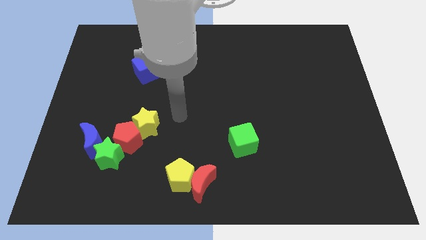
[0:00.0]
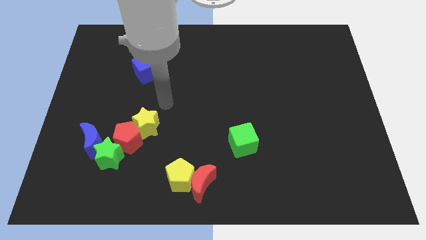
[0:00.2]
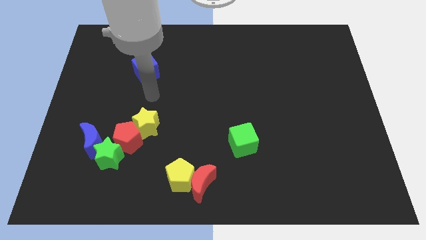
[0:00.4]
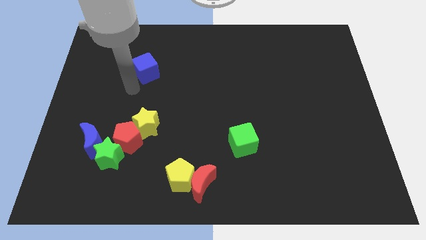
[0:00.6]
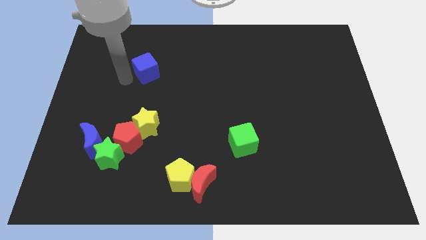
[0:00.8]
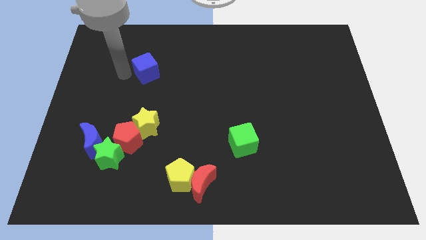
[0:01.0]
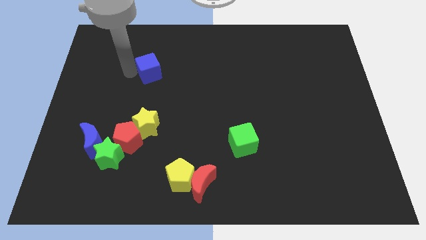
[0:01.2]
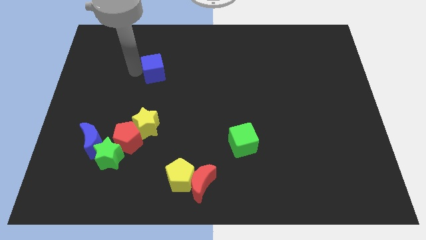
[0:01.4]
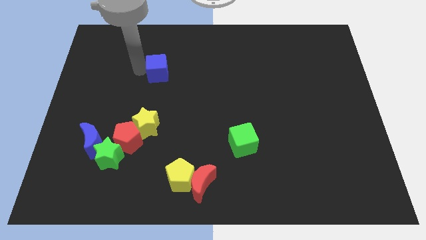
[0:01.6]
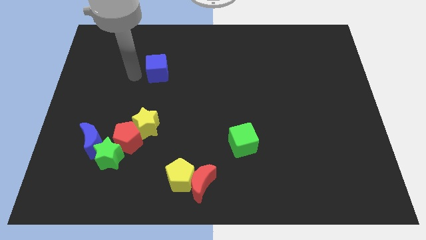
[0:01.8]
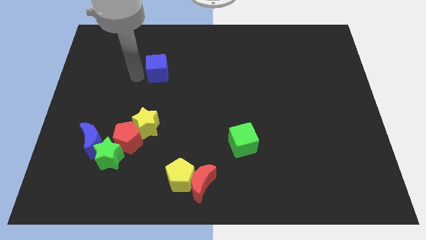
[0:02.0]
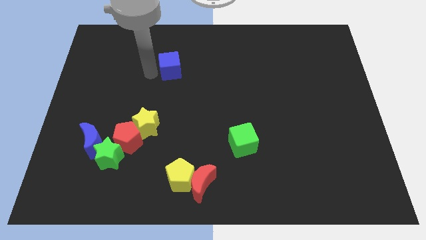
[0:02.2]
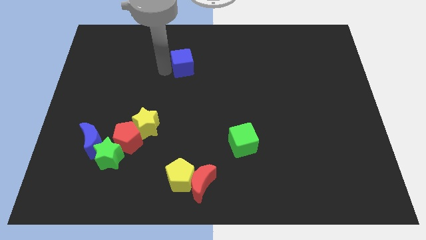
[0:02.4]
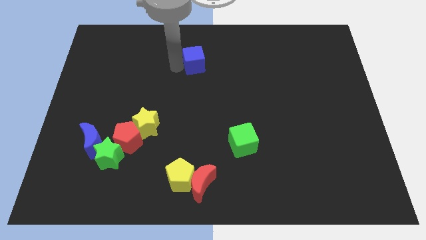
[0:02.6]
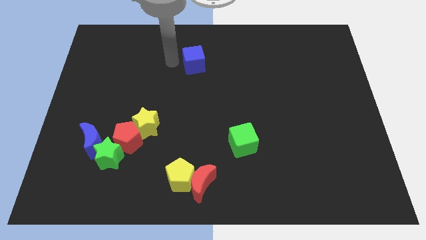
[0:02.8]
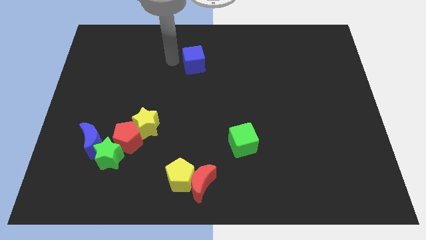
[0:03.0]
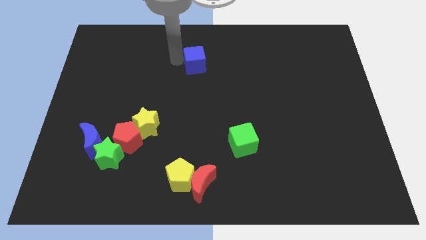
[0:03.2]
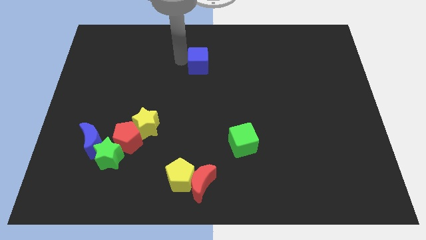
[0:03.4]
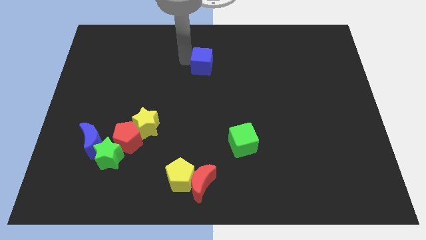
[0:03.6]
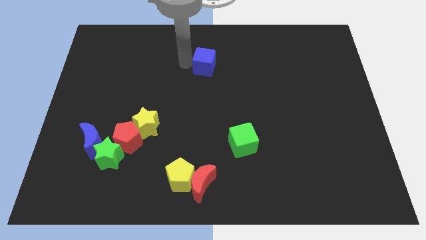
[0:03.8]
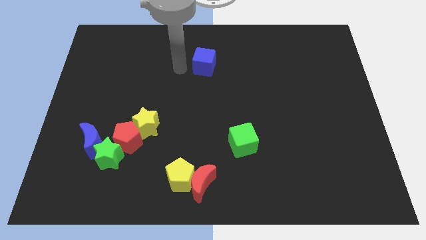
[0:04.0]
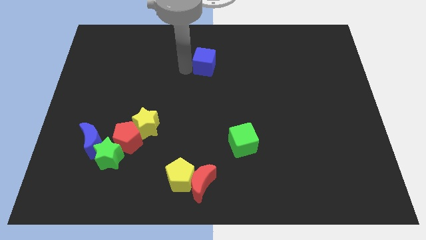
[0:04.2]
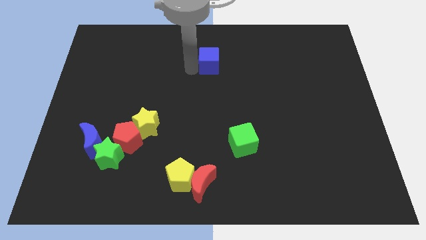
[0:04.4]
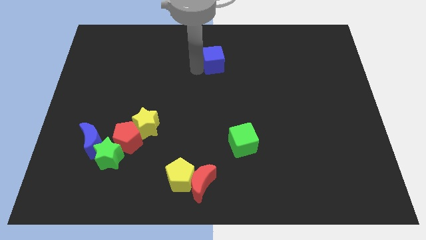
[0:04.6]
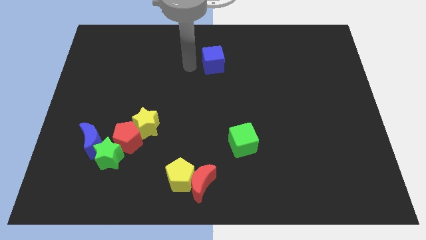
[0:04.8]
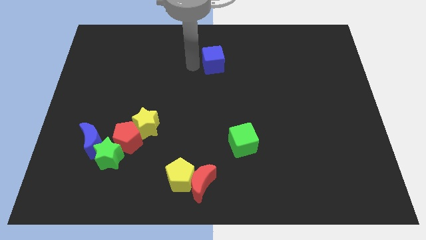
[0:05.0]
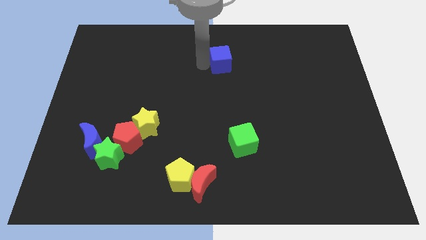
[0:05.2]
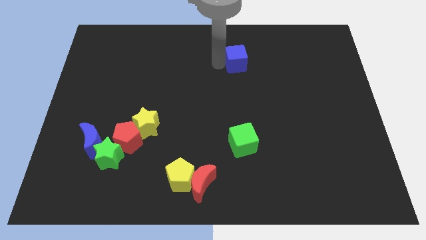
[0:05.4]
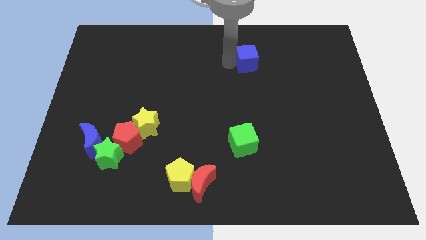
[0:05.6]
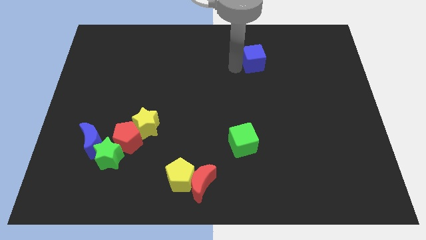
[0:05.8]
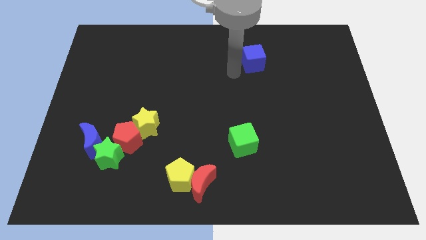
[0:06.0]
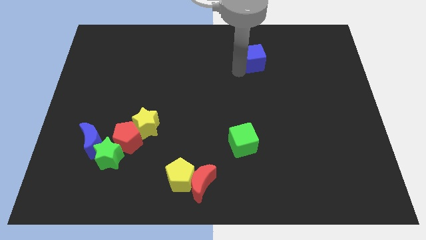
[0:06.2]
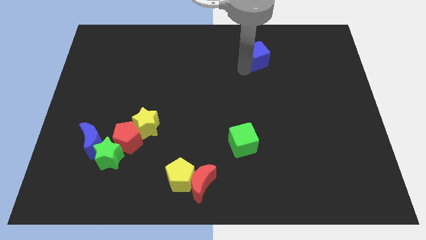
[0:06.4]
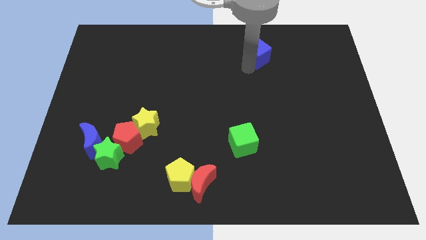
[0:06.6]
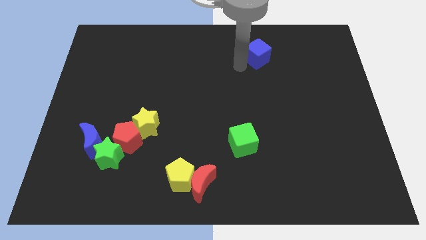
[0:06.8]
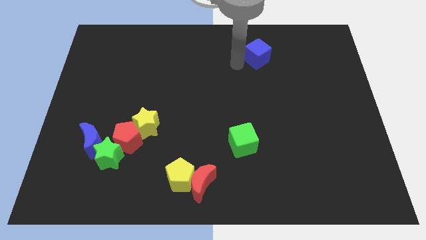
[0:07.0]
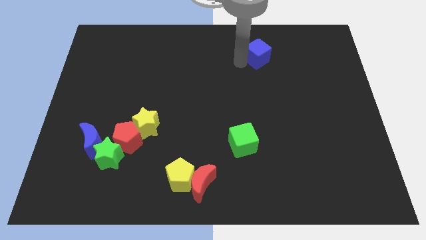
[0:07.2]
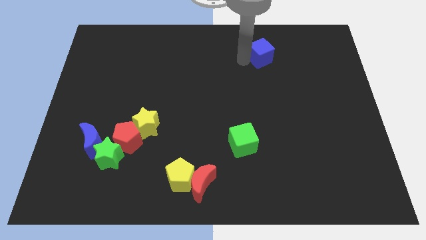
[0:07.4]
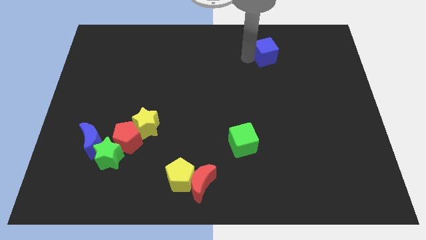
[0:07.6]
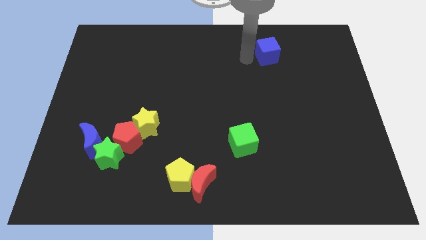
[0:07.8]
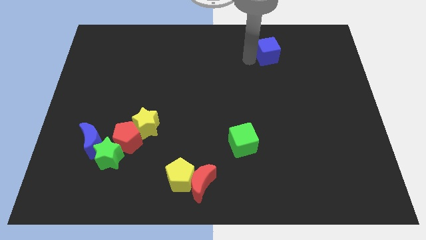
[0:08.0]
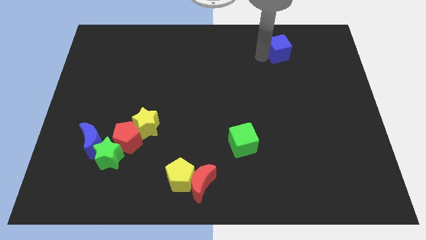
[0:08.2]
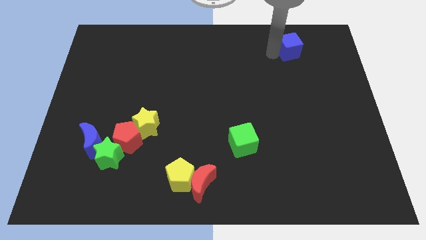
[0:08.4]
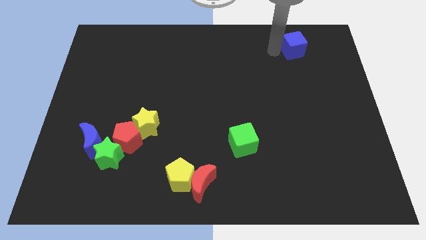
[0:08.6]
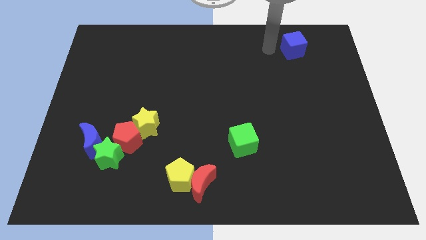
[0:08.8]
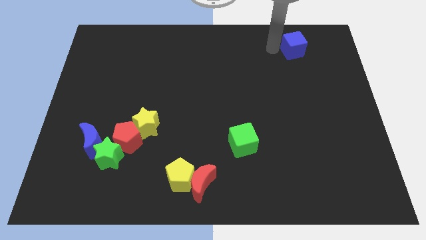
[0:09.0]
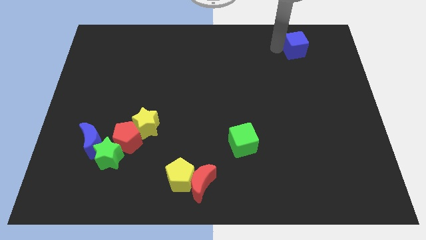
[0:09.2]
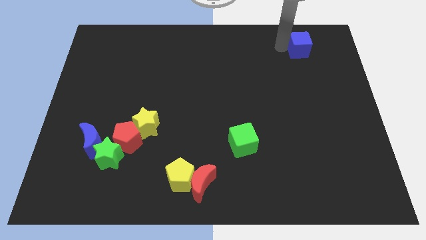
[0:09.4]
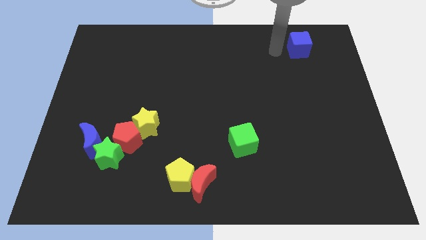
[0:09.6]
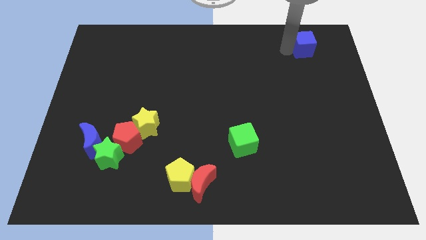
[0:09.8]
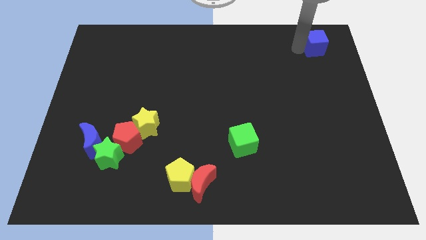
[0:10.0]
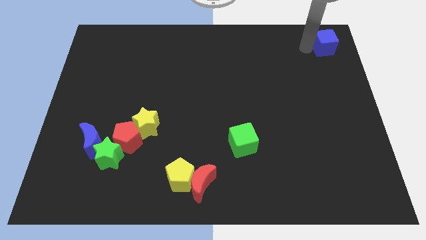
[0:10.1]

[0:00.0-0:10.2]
slide the blue cube to the top right of the board

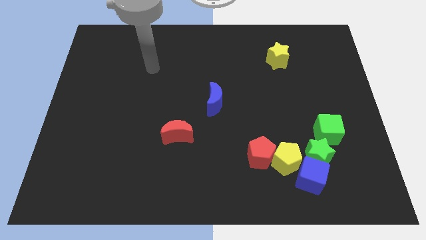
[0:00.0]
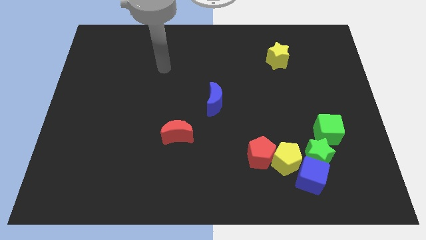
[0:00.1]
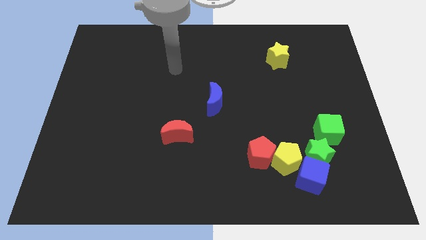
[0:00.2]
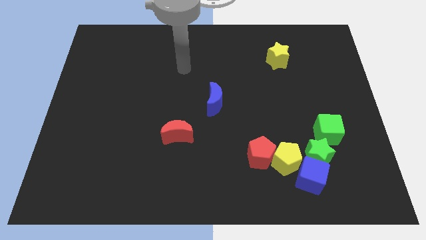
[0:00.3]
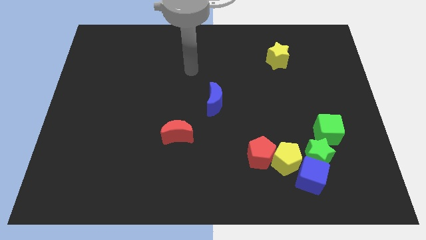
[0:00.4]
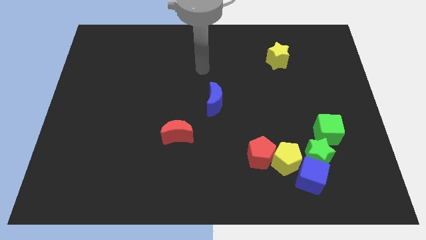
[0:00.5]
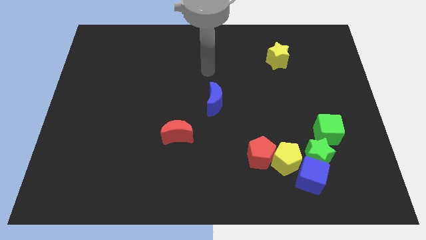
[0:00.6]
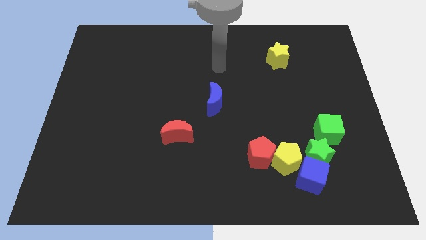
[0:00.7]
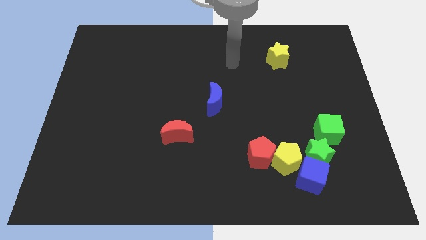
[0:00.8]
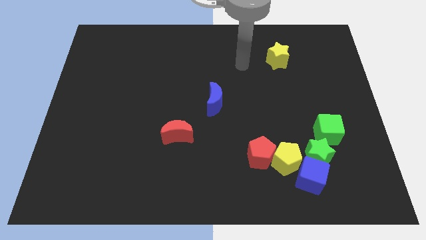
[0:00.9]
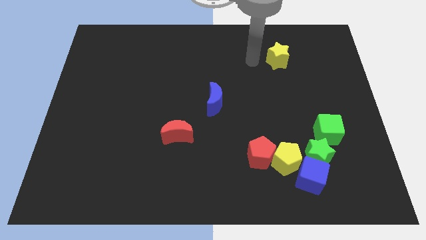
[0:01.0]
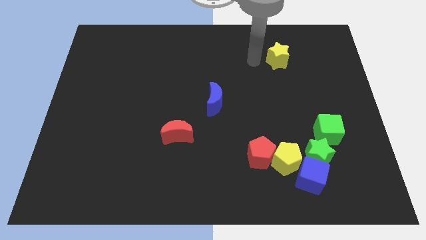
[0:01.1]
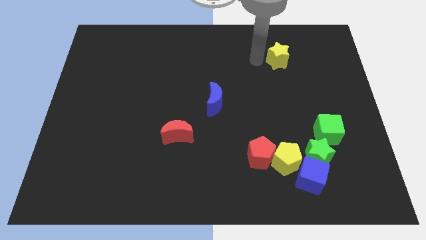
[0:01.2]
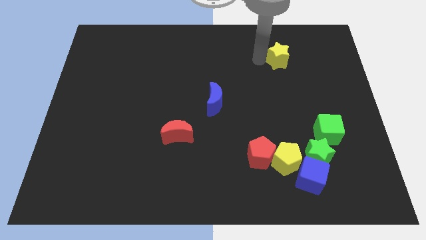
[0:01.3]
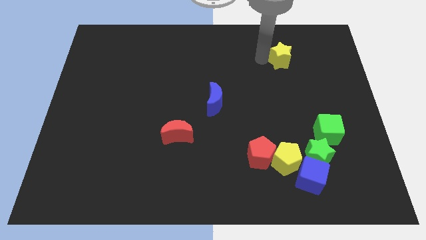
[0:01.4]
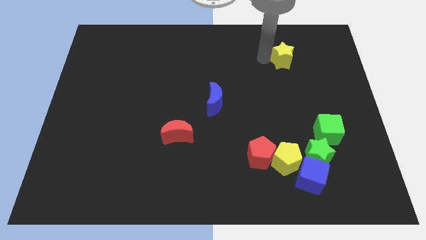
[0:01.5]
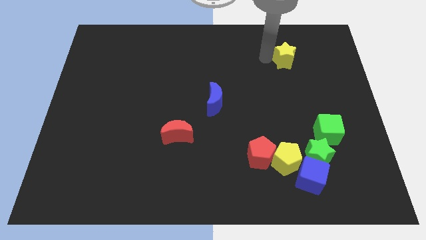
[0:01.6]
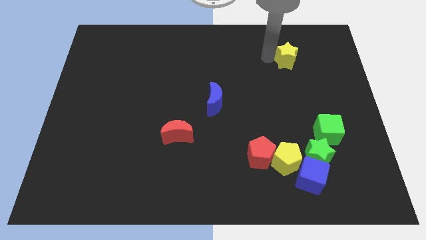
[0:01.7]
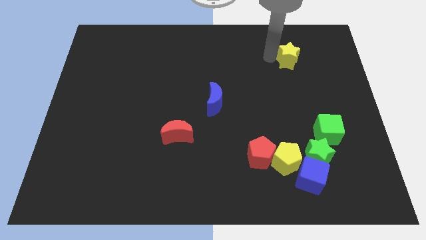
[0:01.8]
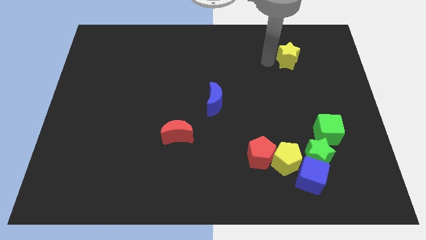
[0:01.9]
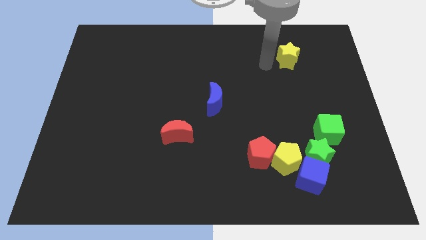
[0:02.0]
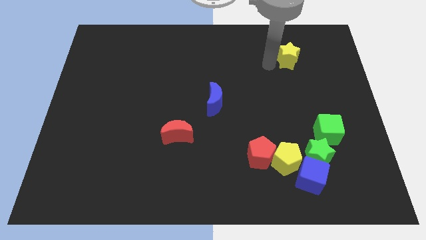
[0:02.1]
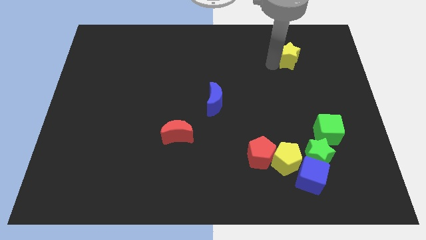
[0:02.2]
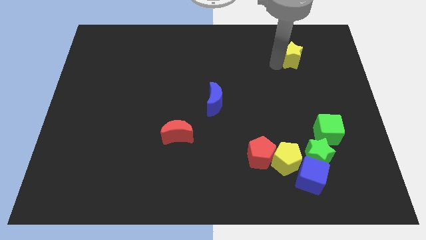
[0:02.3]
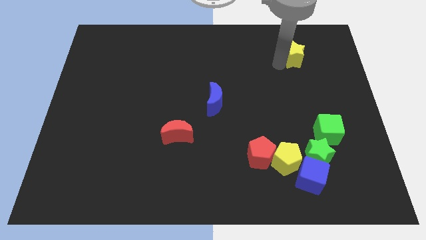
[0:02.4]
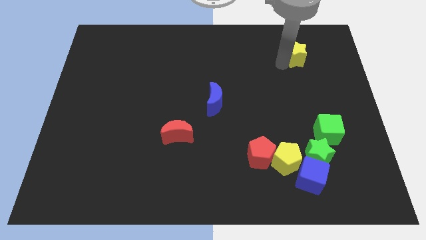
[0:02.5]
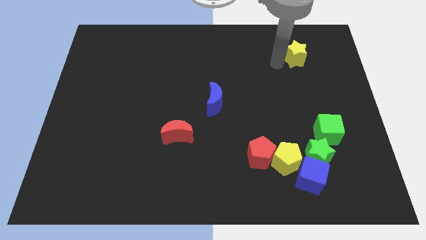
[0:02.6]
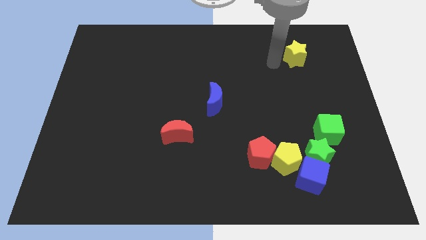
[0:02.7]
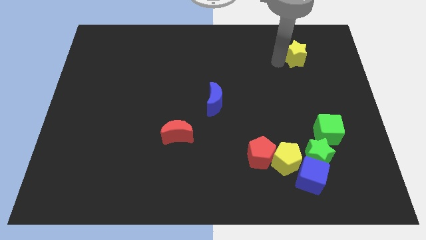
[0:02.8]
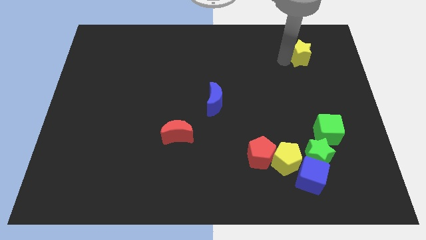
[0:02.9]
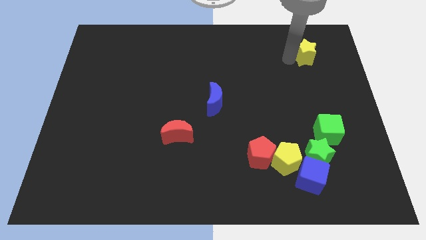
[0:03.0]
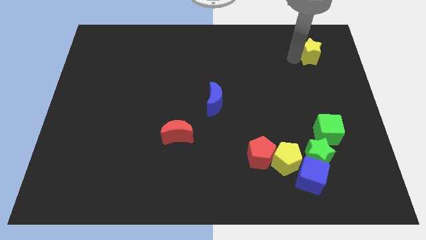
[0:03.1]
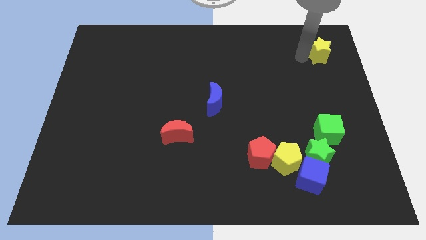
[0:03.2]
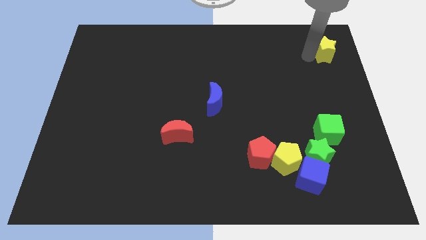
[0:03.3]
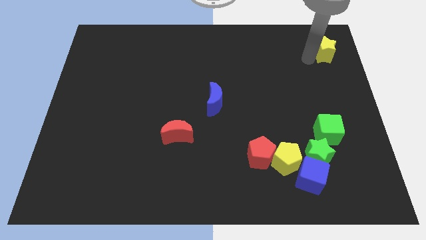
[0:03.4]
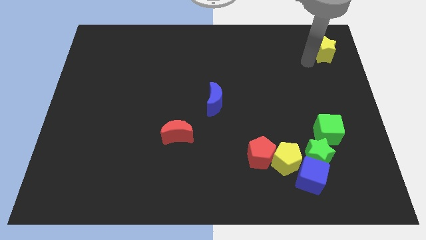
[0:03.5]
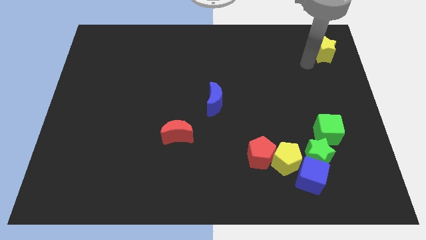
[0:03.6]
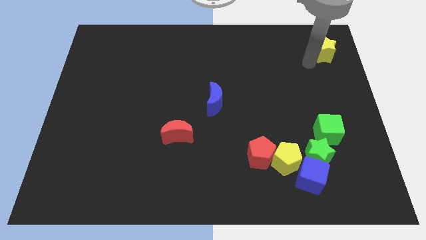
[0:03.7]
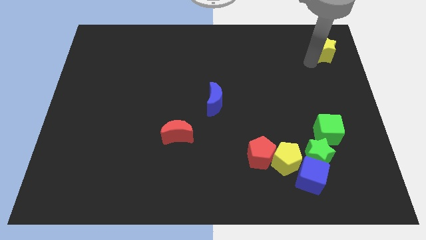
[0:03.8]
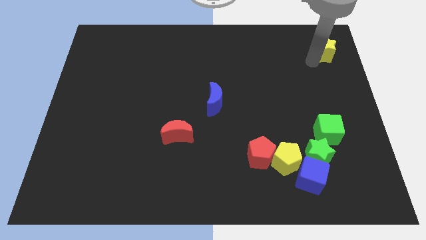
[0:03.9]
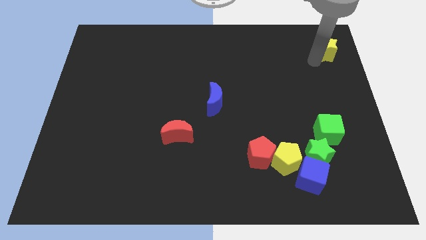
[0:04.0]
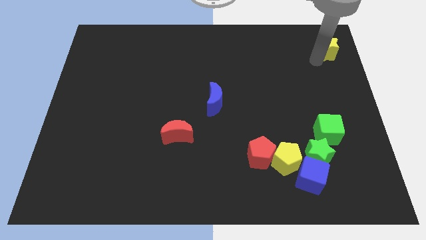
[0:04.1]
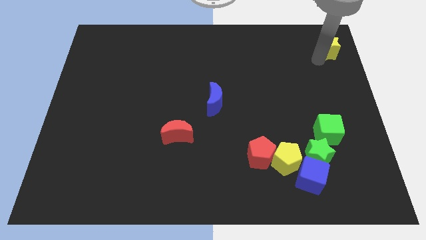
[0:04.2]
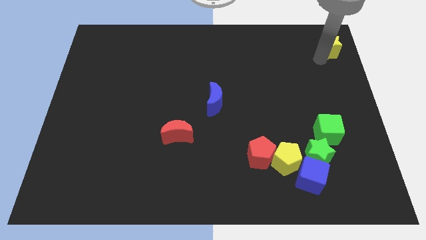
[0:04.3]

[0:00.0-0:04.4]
push the yellow star to the upper right corner
